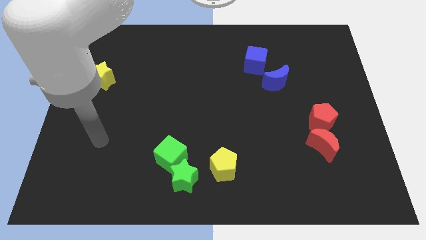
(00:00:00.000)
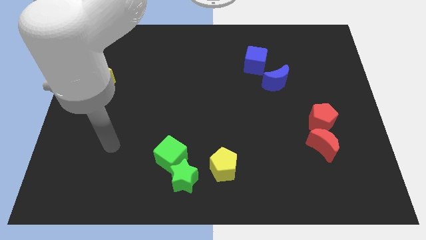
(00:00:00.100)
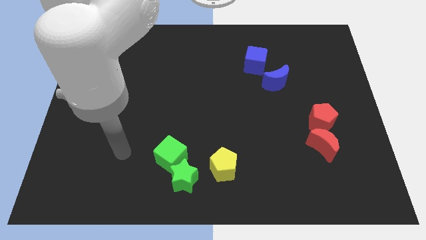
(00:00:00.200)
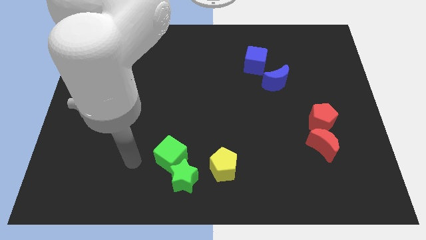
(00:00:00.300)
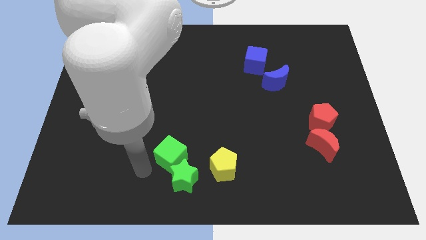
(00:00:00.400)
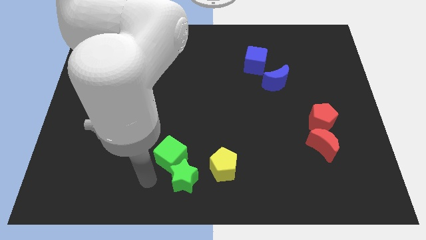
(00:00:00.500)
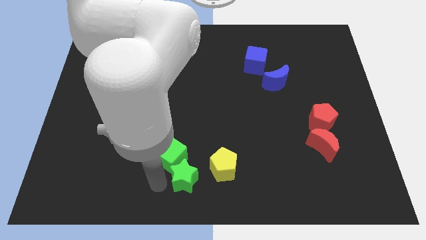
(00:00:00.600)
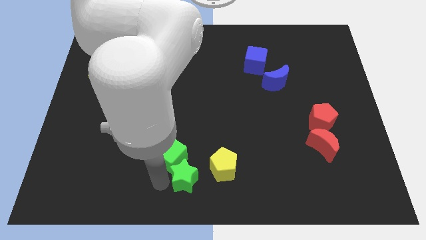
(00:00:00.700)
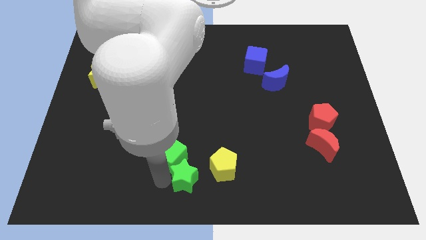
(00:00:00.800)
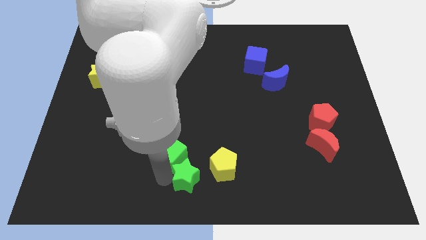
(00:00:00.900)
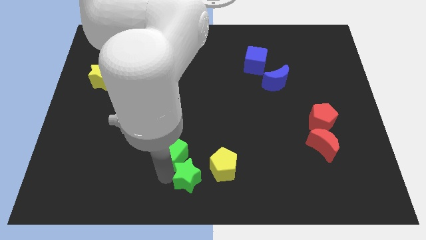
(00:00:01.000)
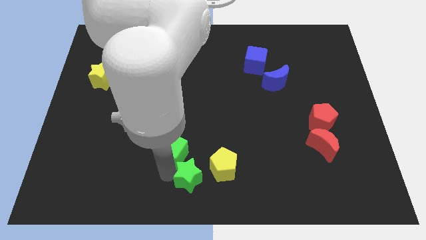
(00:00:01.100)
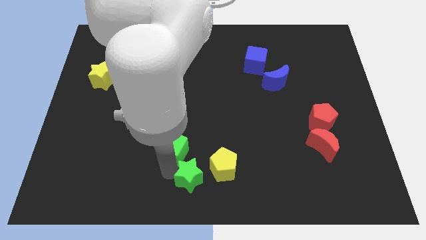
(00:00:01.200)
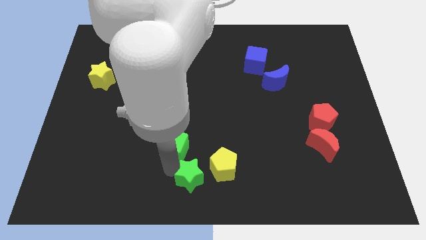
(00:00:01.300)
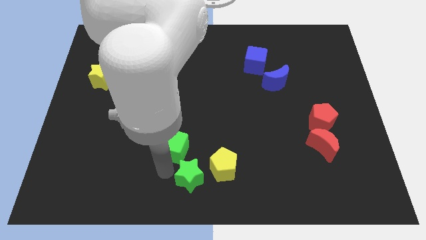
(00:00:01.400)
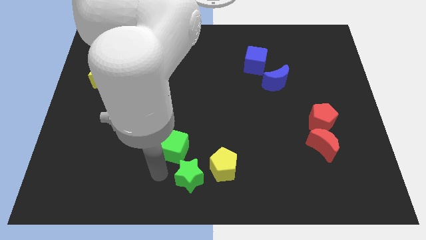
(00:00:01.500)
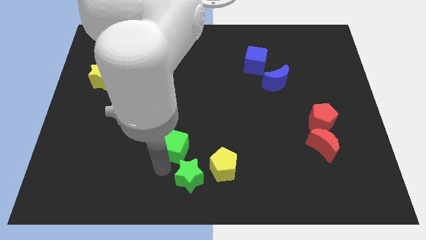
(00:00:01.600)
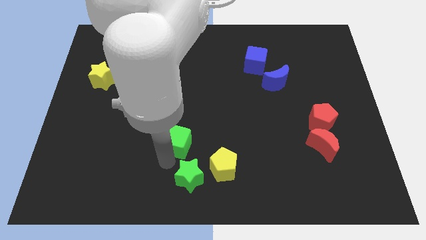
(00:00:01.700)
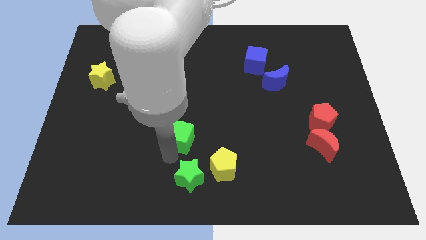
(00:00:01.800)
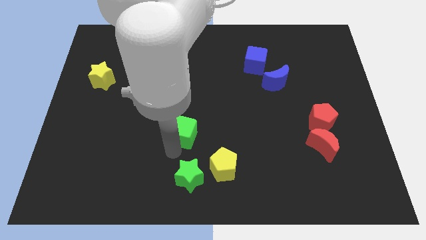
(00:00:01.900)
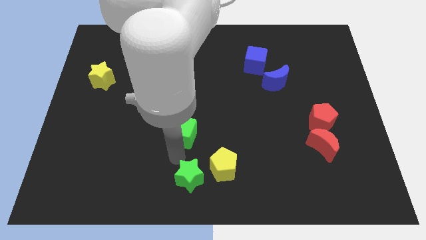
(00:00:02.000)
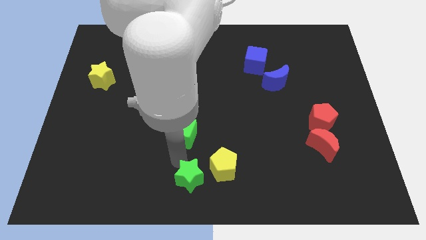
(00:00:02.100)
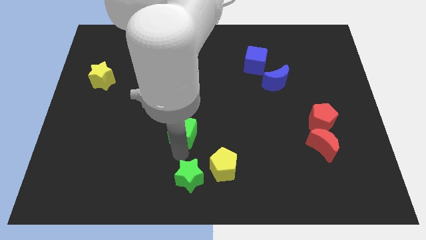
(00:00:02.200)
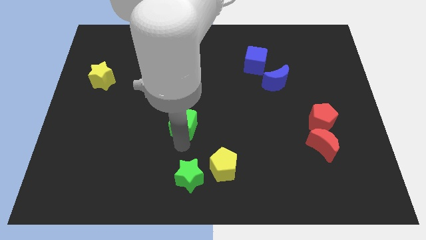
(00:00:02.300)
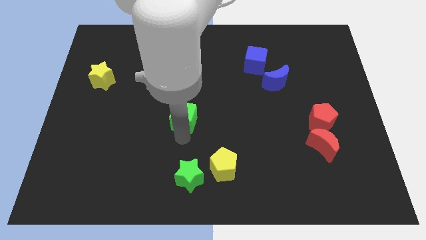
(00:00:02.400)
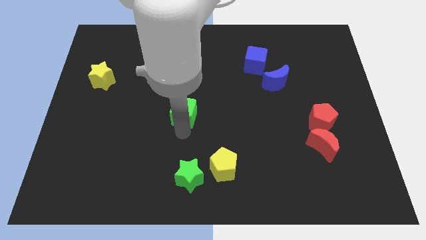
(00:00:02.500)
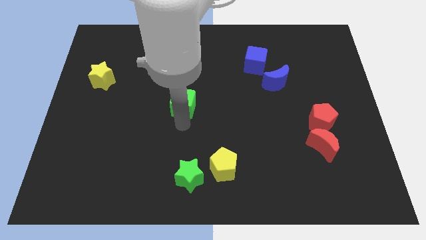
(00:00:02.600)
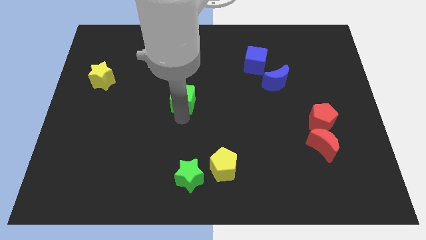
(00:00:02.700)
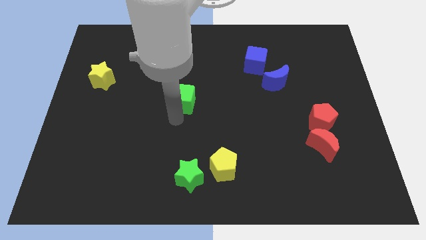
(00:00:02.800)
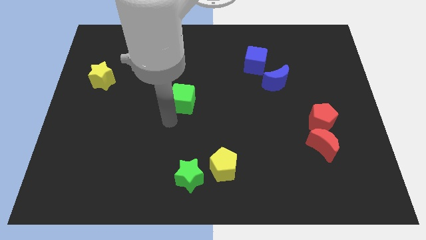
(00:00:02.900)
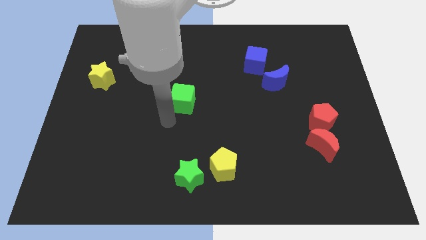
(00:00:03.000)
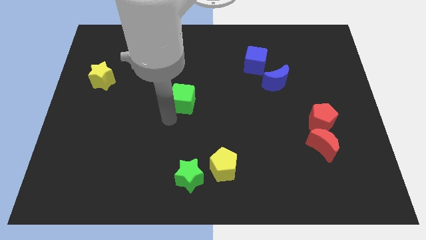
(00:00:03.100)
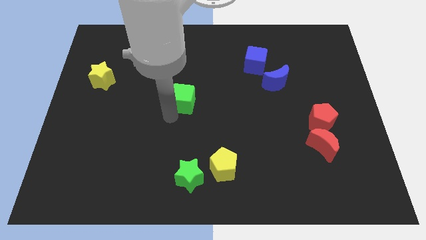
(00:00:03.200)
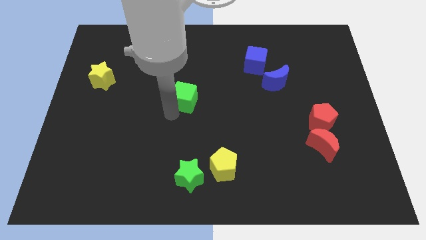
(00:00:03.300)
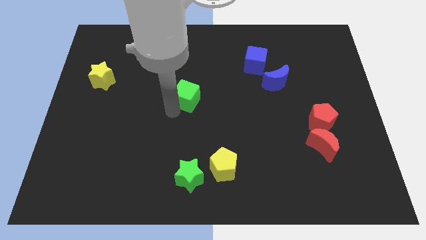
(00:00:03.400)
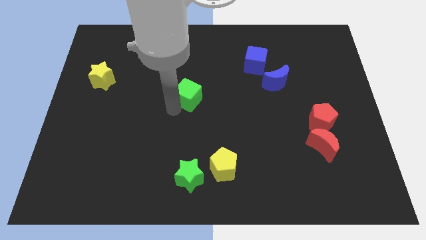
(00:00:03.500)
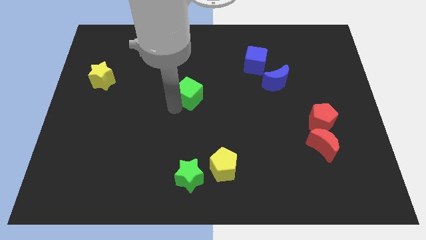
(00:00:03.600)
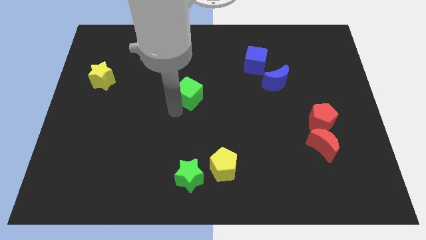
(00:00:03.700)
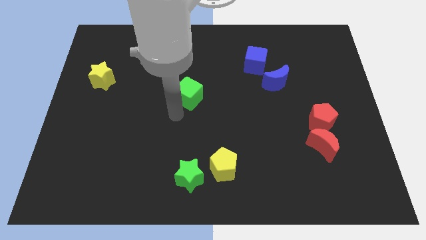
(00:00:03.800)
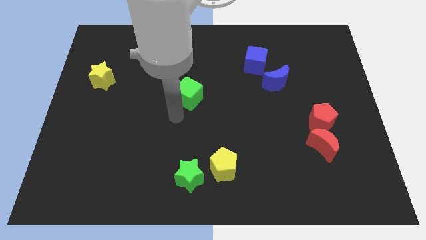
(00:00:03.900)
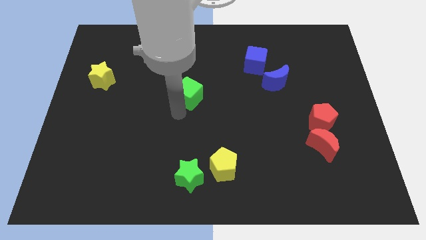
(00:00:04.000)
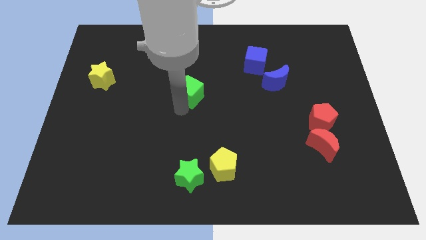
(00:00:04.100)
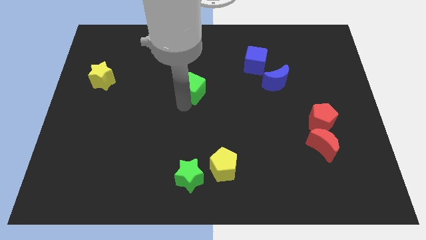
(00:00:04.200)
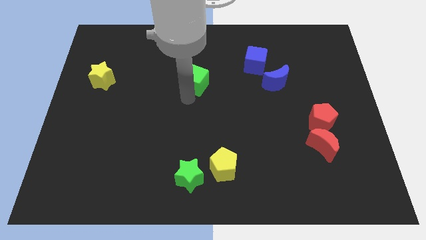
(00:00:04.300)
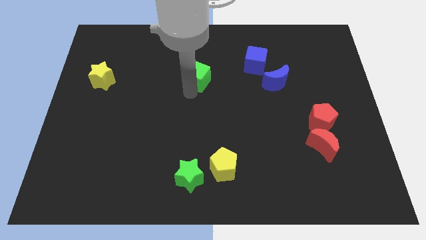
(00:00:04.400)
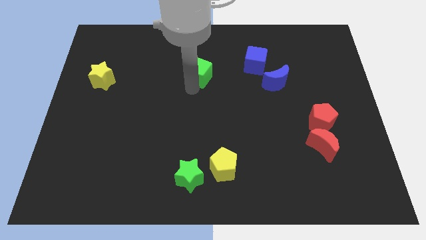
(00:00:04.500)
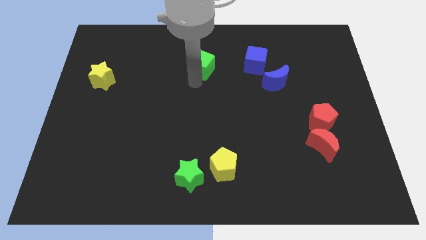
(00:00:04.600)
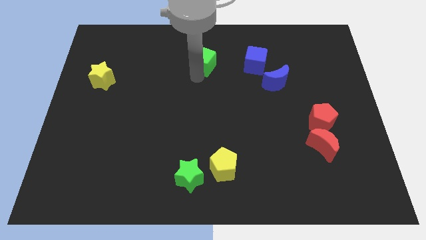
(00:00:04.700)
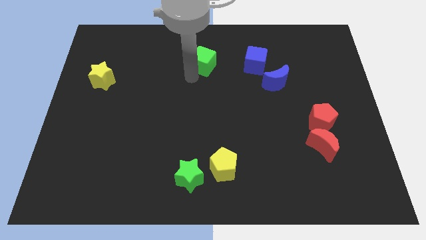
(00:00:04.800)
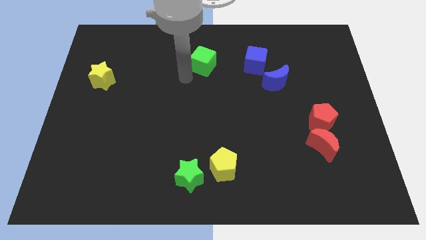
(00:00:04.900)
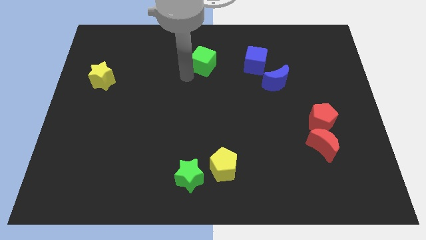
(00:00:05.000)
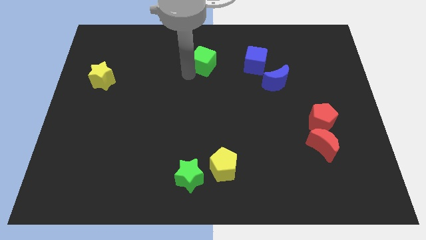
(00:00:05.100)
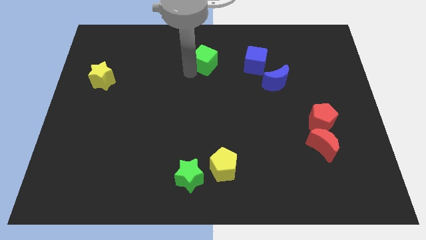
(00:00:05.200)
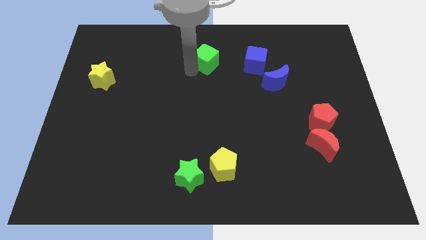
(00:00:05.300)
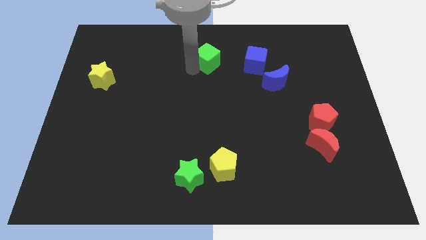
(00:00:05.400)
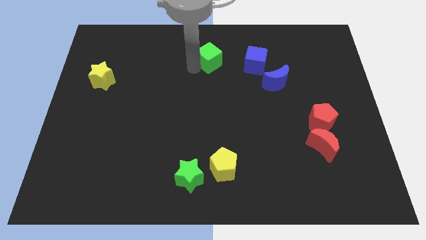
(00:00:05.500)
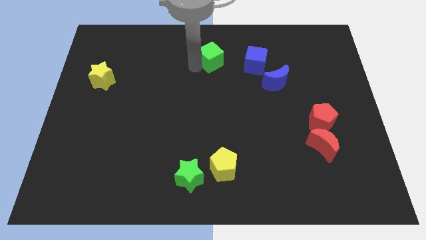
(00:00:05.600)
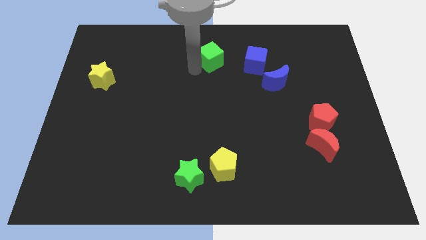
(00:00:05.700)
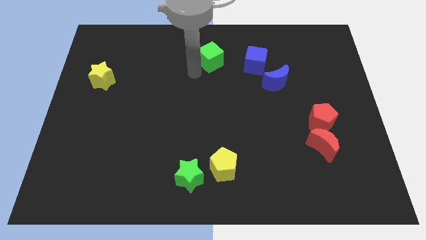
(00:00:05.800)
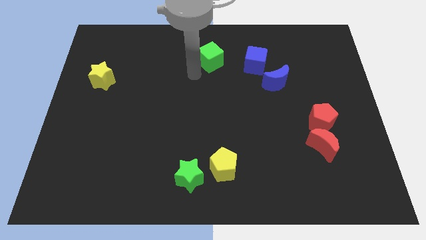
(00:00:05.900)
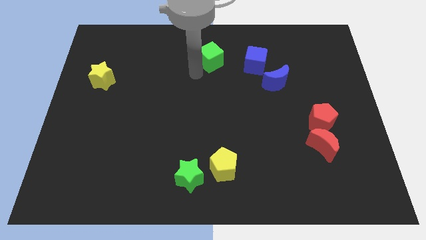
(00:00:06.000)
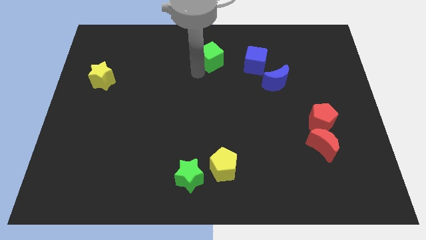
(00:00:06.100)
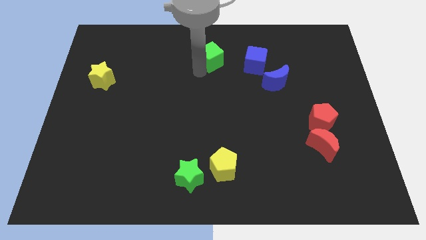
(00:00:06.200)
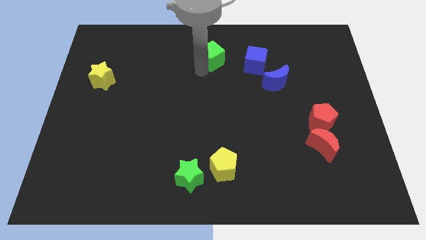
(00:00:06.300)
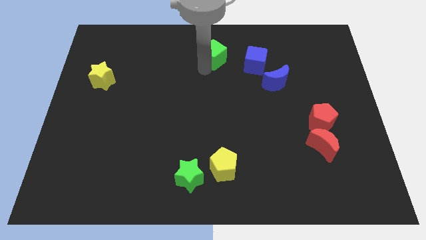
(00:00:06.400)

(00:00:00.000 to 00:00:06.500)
slide the green cube to the top
